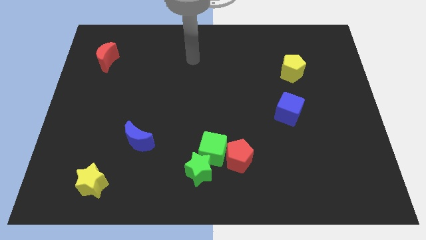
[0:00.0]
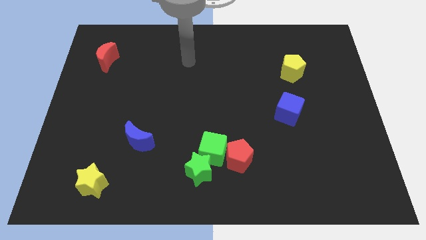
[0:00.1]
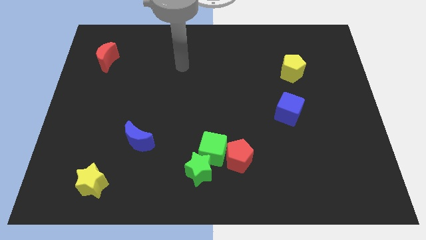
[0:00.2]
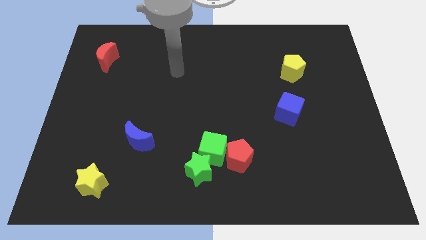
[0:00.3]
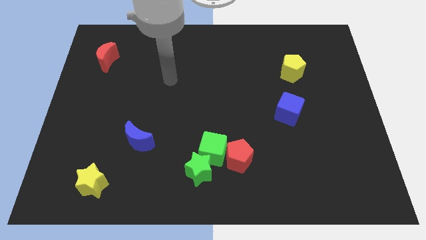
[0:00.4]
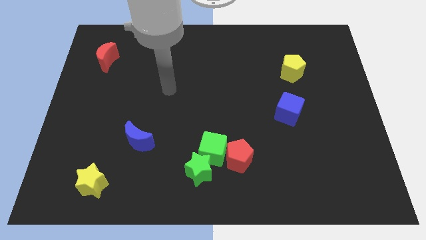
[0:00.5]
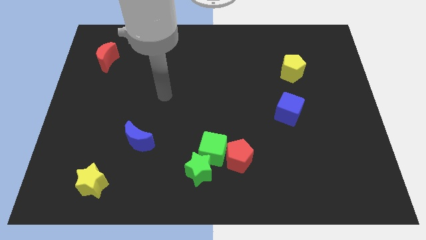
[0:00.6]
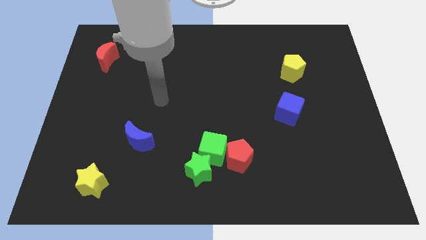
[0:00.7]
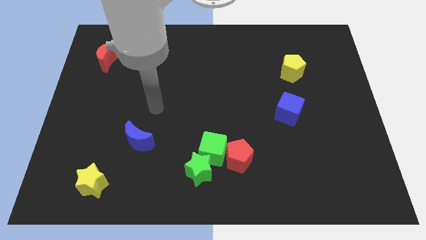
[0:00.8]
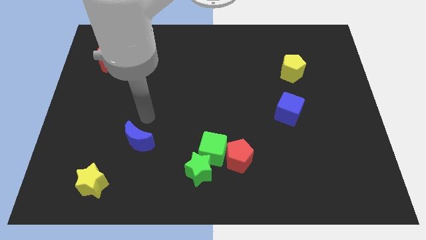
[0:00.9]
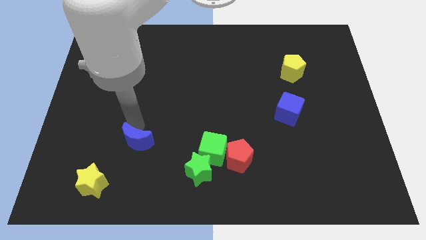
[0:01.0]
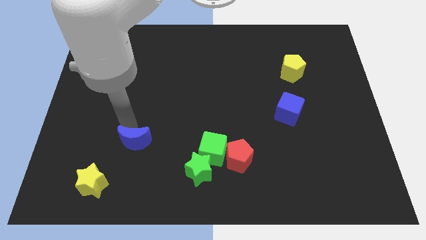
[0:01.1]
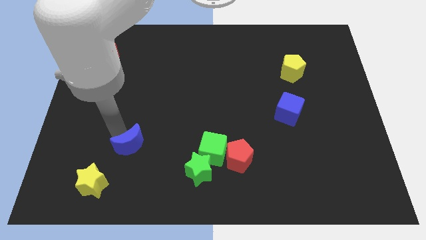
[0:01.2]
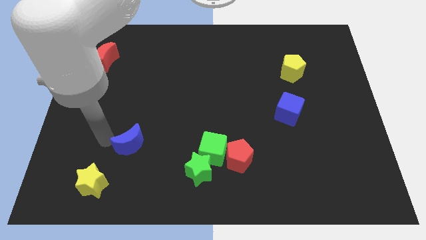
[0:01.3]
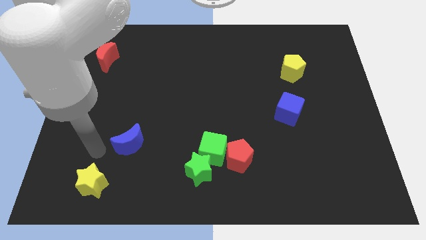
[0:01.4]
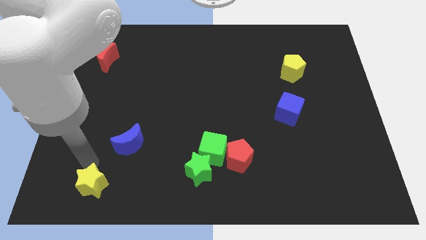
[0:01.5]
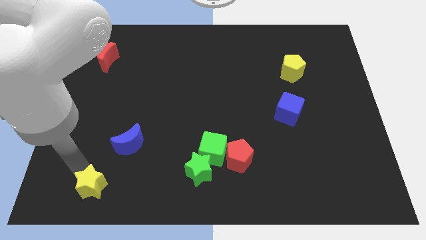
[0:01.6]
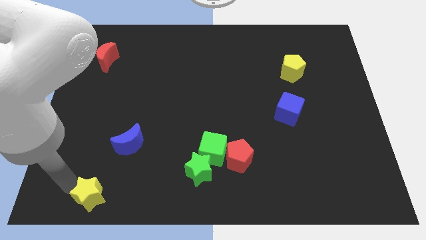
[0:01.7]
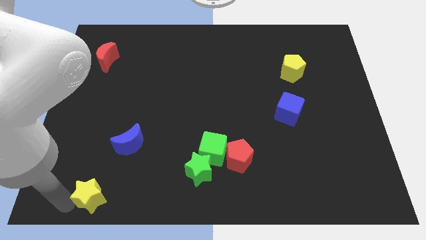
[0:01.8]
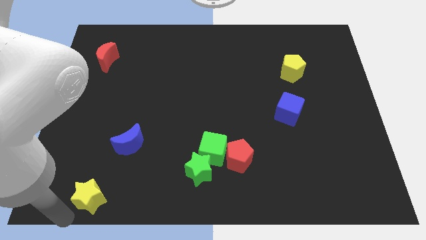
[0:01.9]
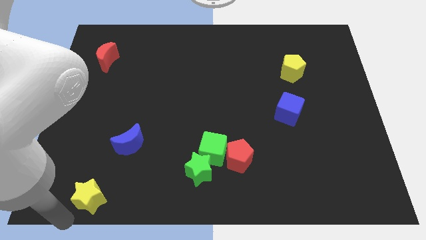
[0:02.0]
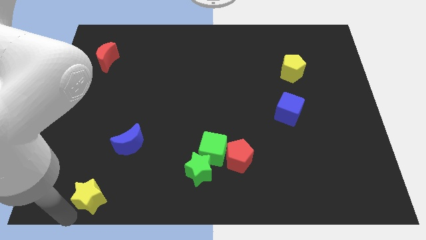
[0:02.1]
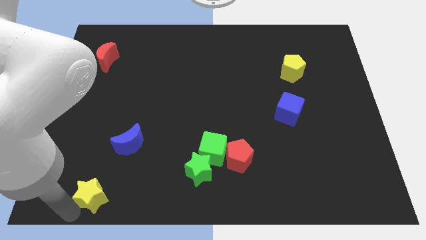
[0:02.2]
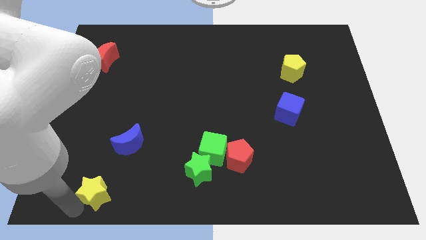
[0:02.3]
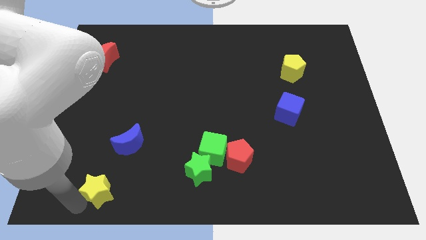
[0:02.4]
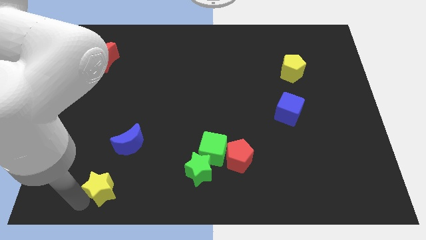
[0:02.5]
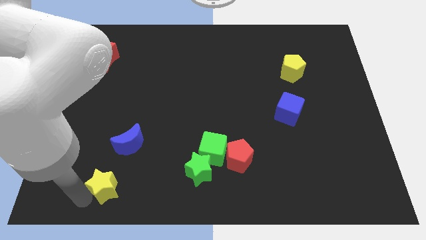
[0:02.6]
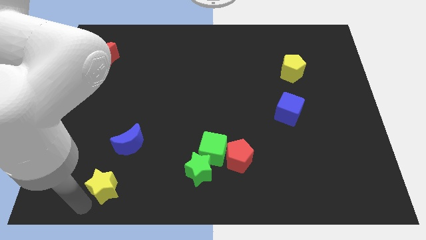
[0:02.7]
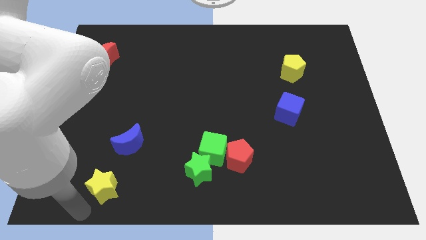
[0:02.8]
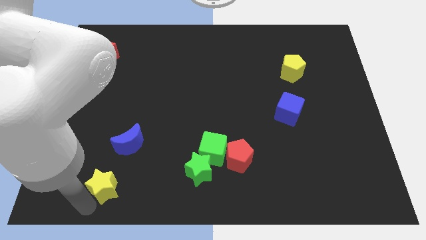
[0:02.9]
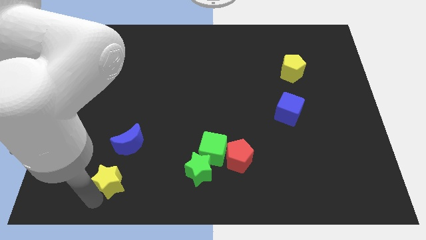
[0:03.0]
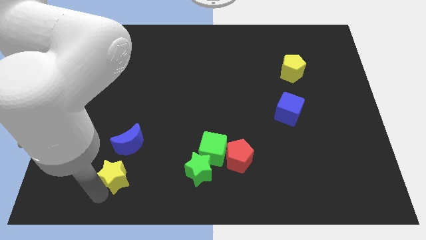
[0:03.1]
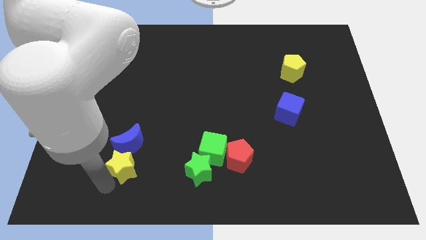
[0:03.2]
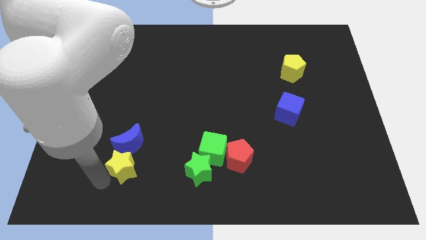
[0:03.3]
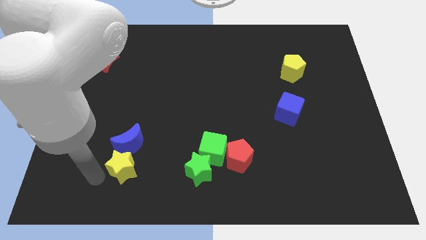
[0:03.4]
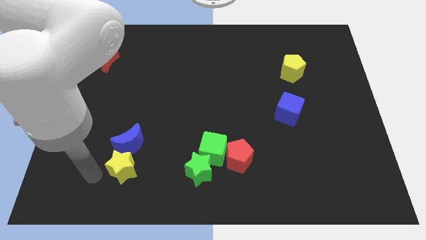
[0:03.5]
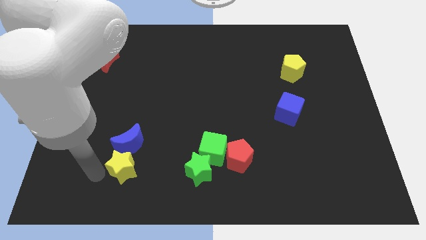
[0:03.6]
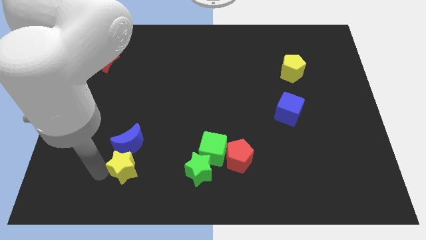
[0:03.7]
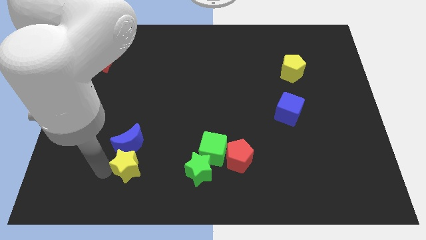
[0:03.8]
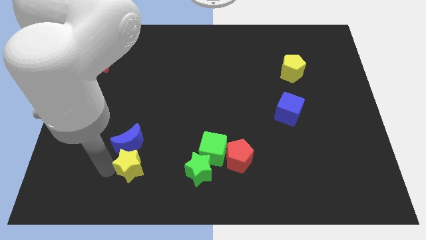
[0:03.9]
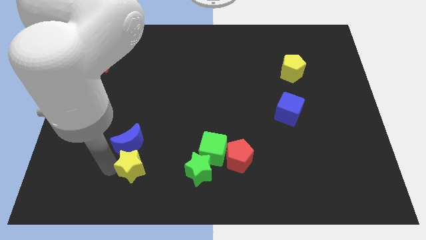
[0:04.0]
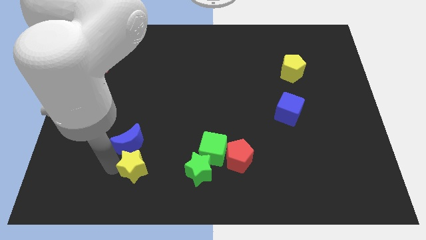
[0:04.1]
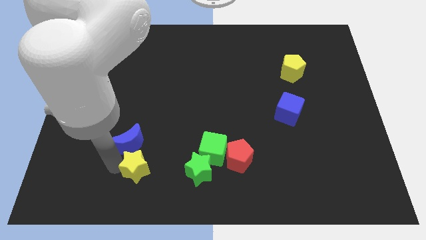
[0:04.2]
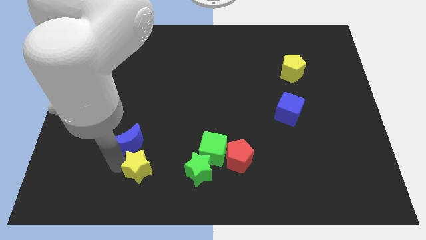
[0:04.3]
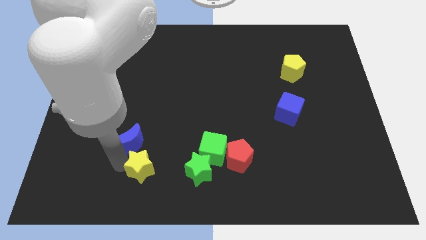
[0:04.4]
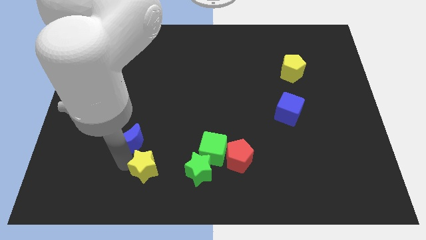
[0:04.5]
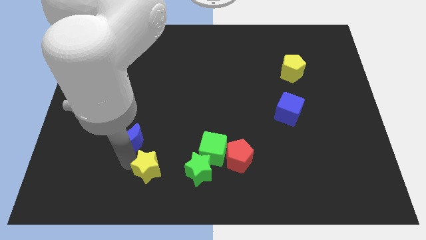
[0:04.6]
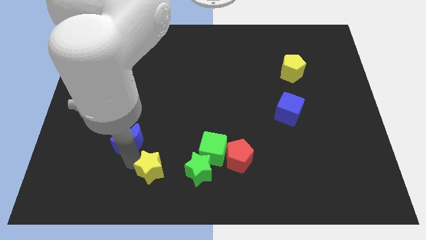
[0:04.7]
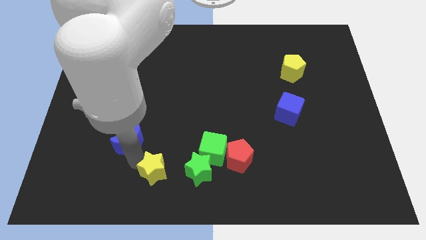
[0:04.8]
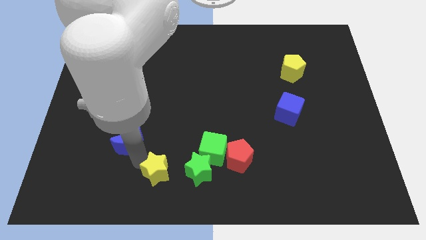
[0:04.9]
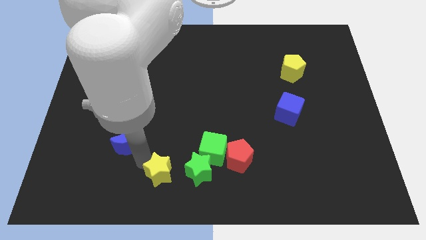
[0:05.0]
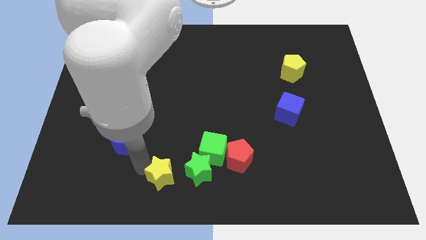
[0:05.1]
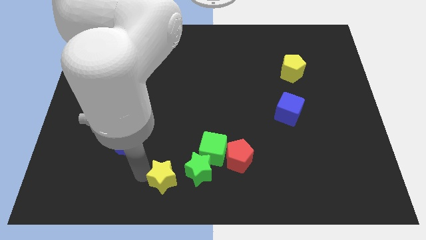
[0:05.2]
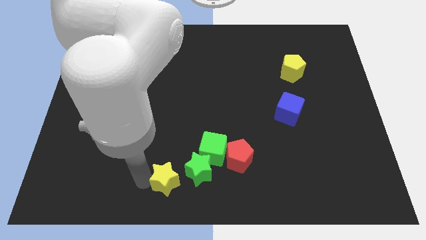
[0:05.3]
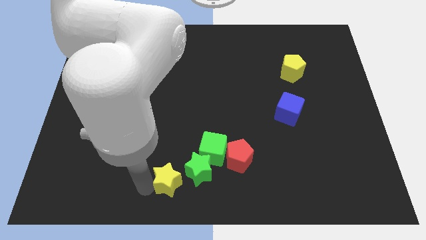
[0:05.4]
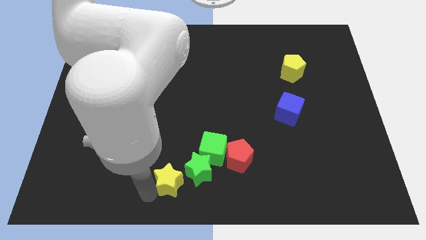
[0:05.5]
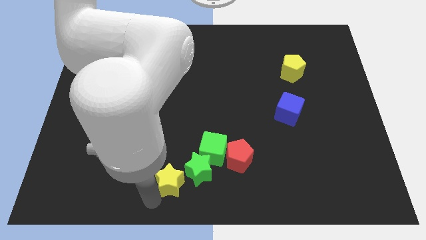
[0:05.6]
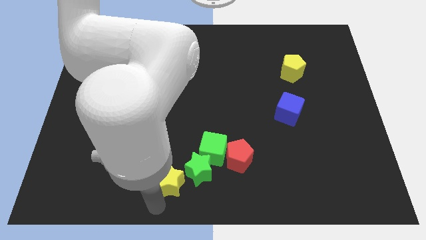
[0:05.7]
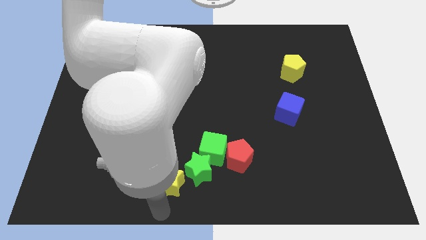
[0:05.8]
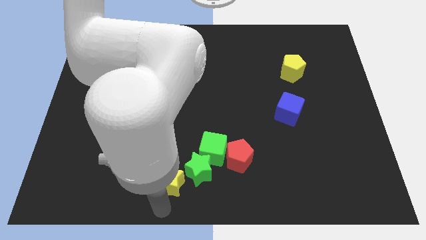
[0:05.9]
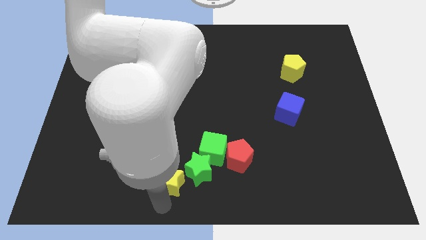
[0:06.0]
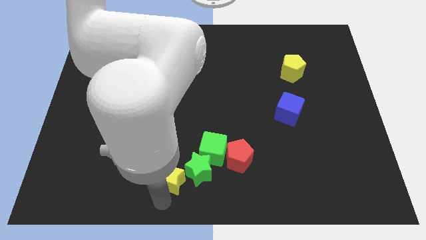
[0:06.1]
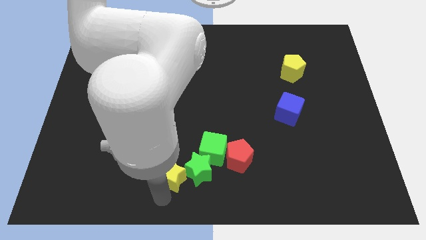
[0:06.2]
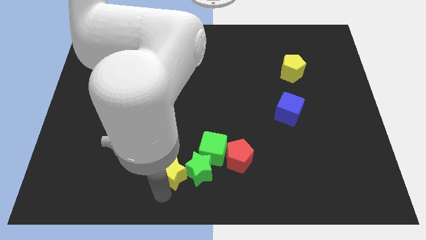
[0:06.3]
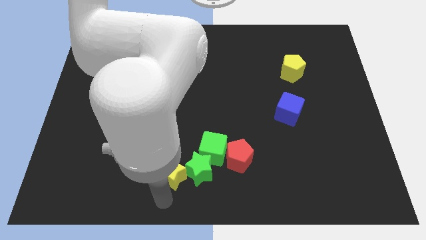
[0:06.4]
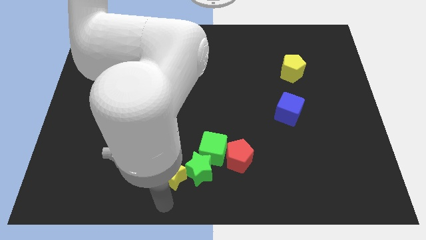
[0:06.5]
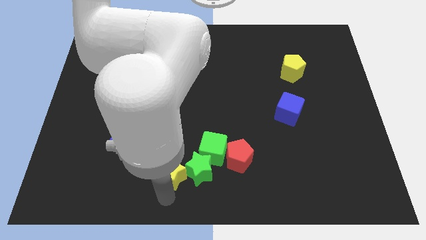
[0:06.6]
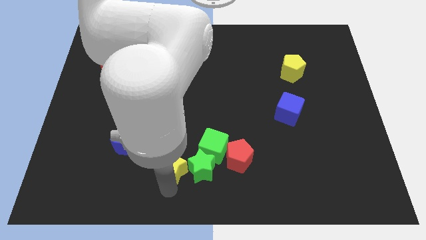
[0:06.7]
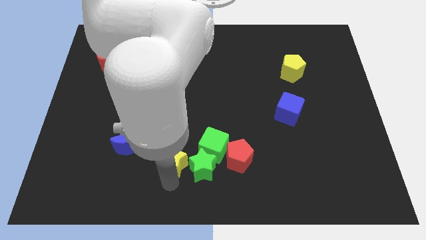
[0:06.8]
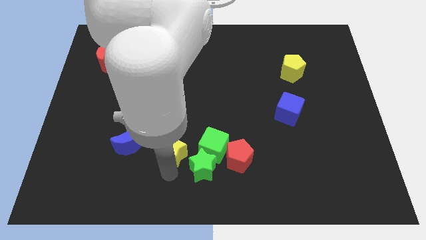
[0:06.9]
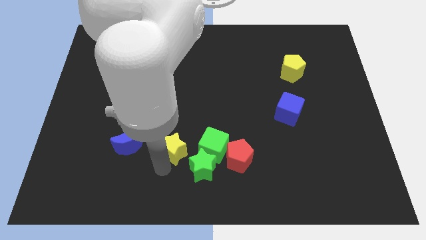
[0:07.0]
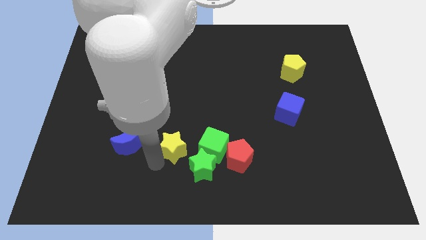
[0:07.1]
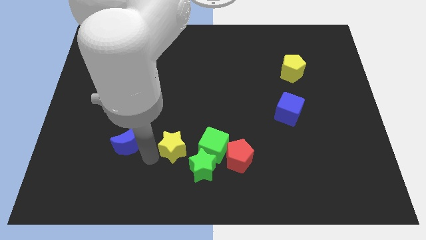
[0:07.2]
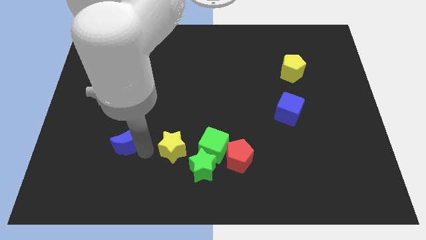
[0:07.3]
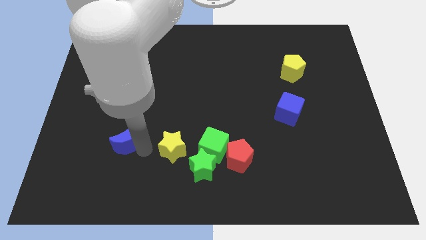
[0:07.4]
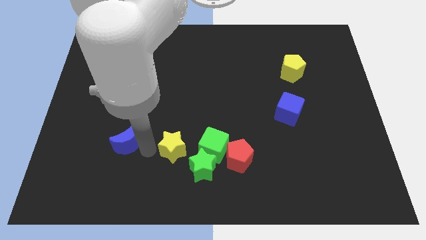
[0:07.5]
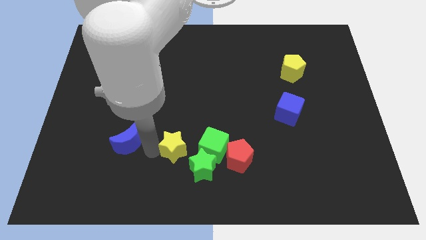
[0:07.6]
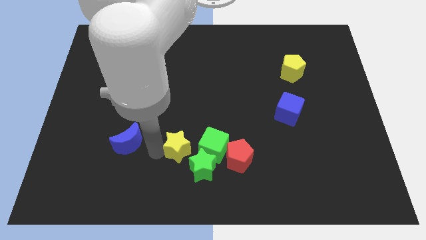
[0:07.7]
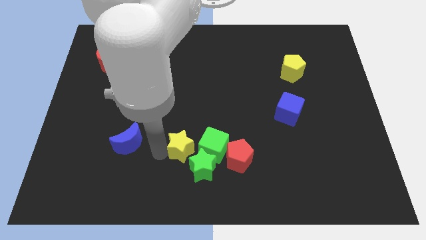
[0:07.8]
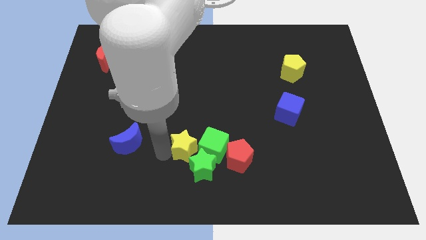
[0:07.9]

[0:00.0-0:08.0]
put the yellow star close to the green cube
